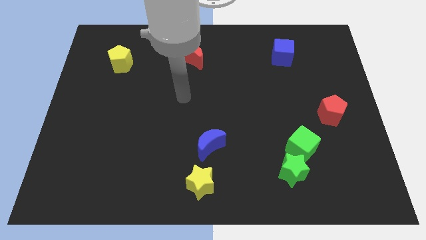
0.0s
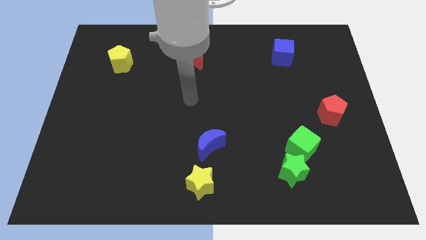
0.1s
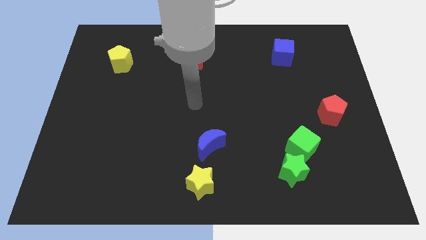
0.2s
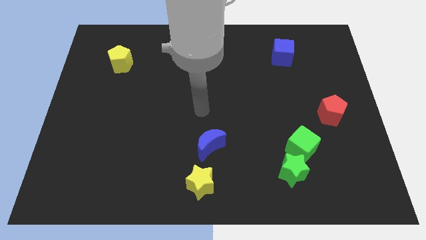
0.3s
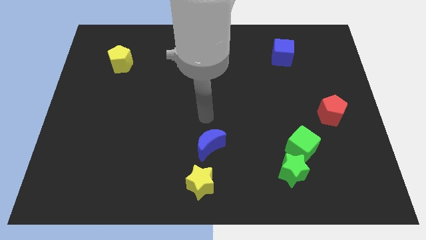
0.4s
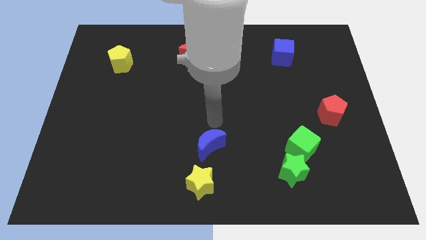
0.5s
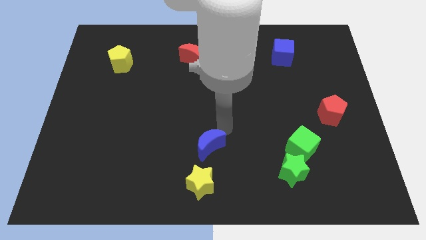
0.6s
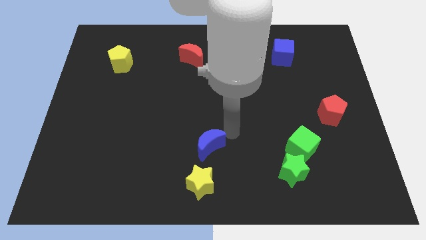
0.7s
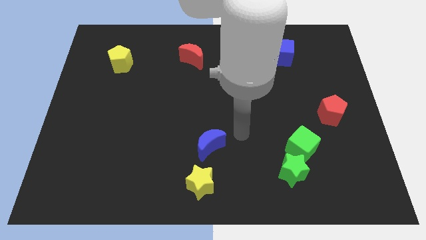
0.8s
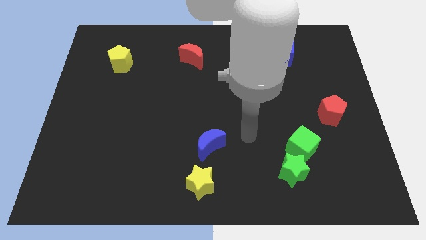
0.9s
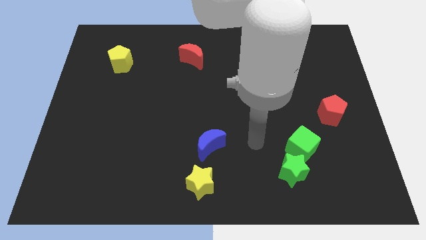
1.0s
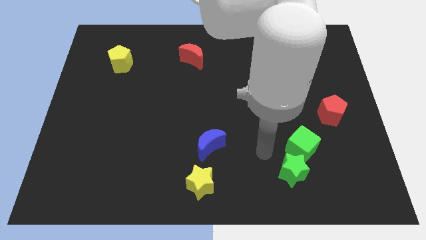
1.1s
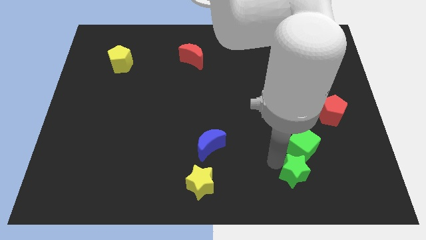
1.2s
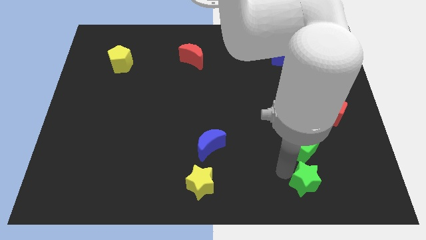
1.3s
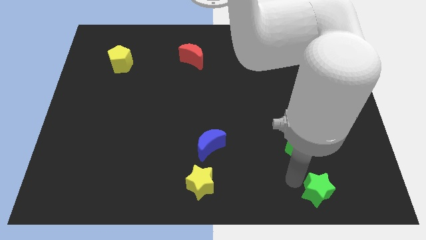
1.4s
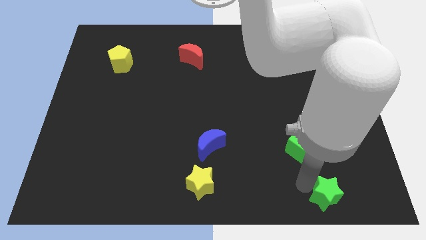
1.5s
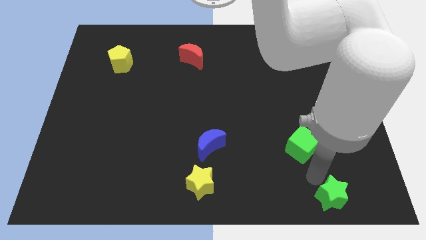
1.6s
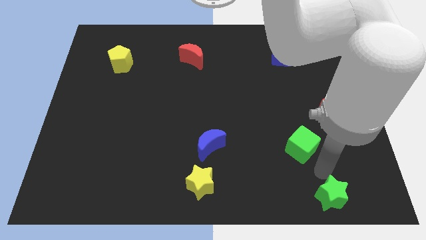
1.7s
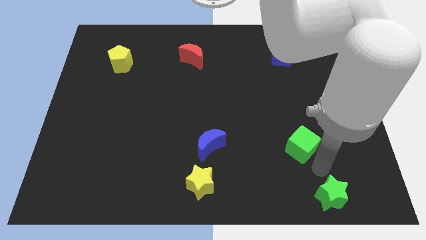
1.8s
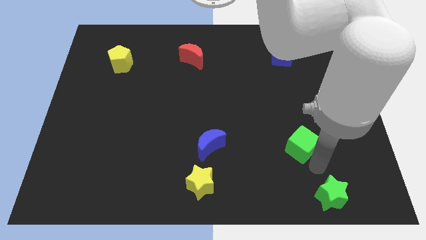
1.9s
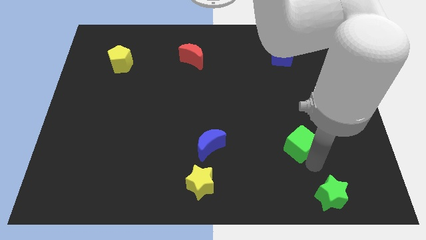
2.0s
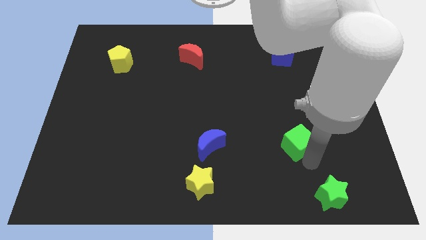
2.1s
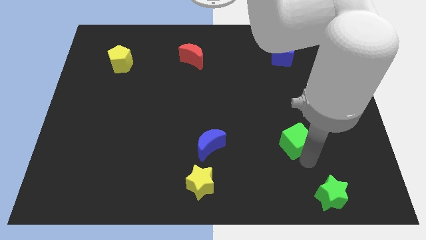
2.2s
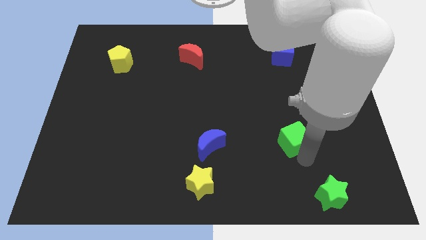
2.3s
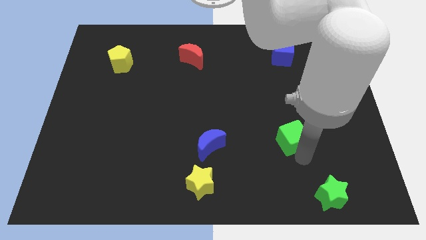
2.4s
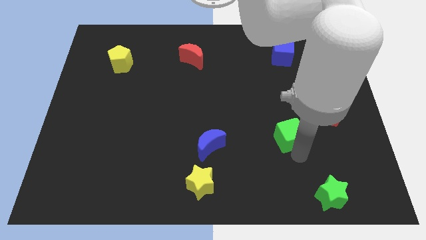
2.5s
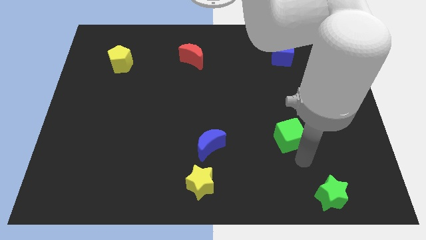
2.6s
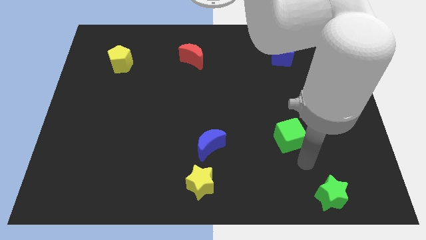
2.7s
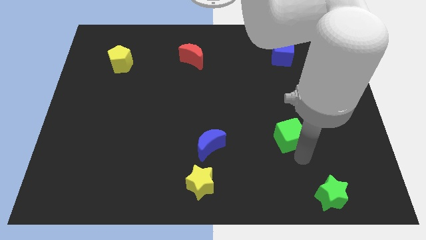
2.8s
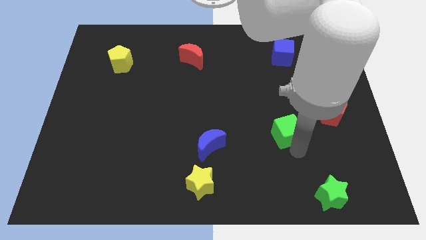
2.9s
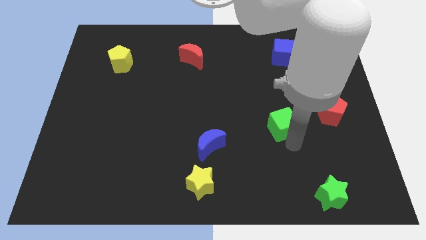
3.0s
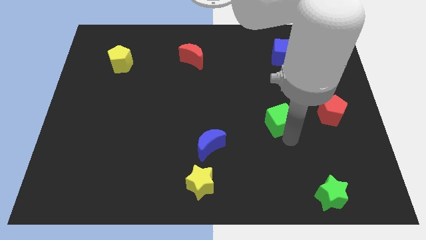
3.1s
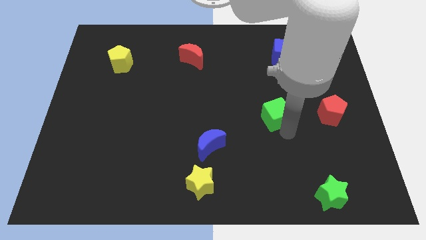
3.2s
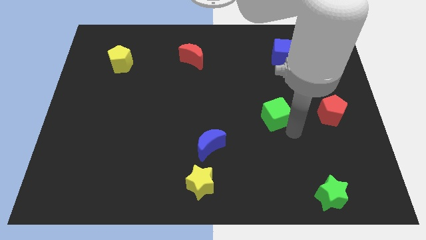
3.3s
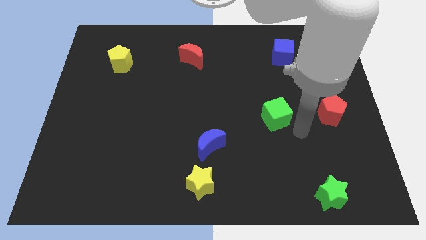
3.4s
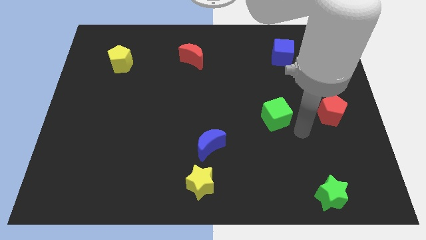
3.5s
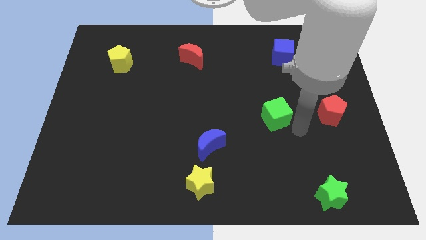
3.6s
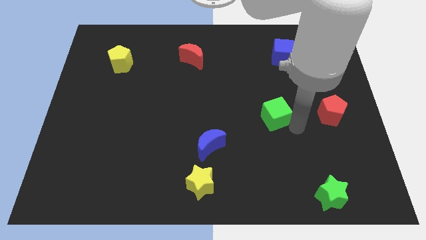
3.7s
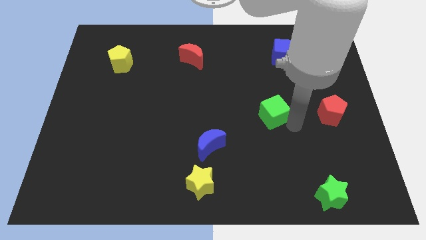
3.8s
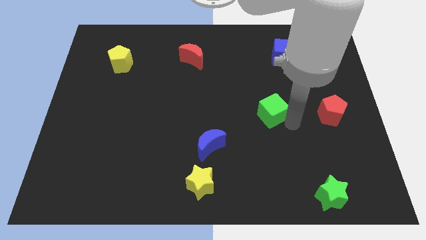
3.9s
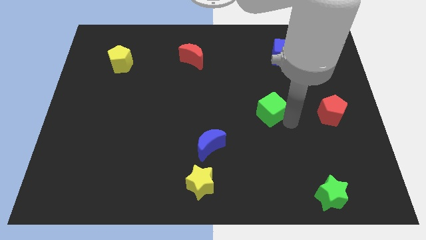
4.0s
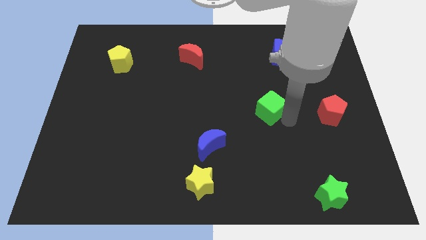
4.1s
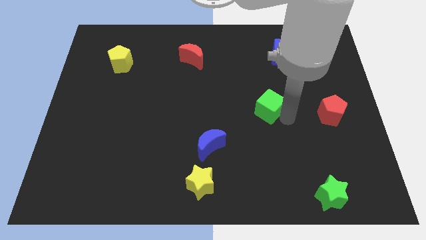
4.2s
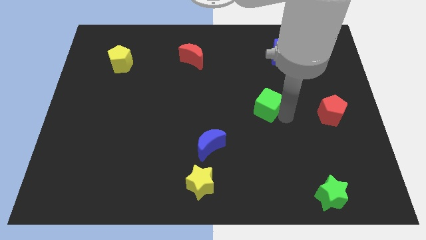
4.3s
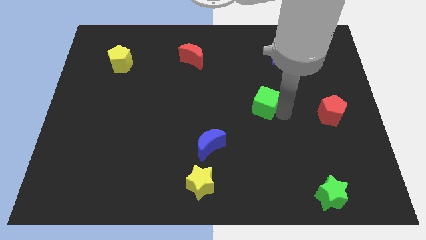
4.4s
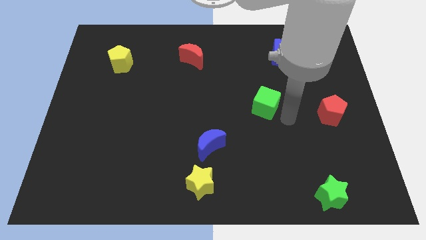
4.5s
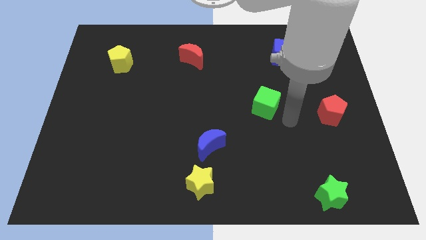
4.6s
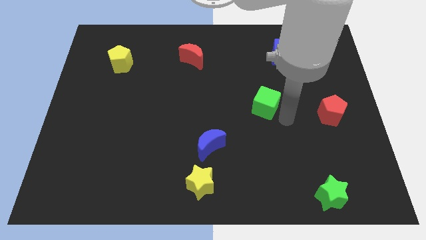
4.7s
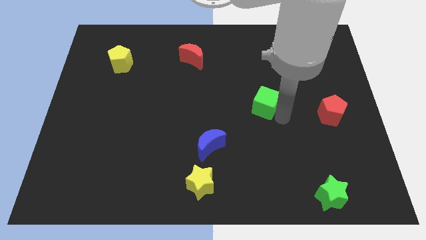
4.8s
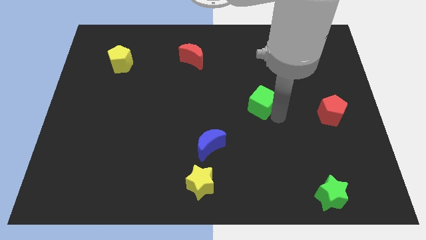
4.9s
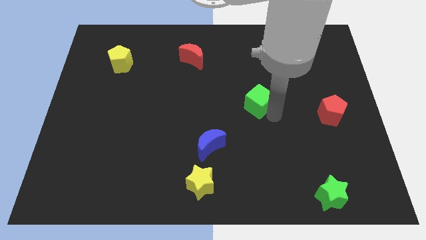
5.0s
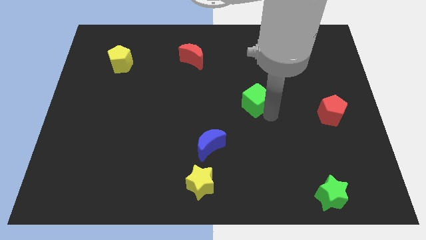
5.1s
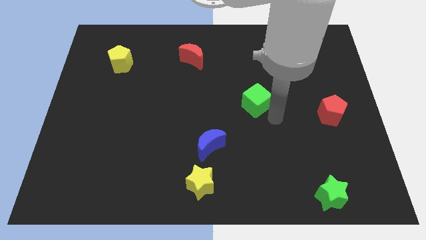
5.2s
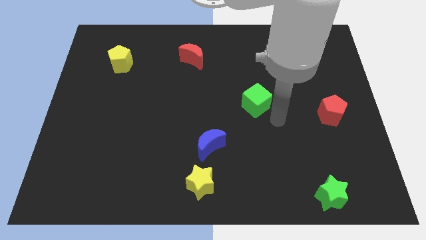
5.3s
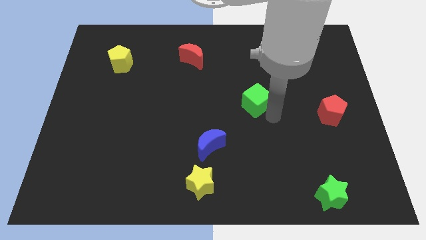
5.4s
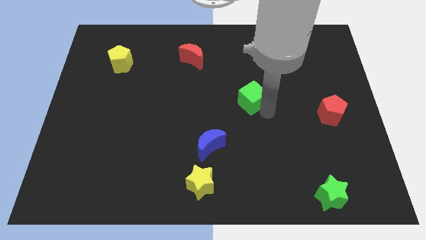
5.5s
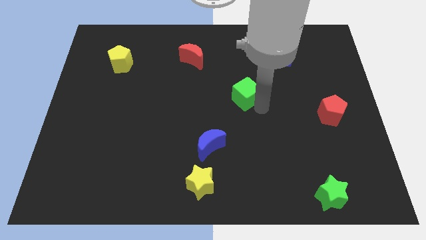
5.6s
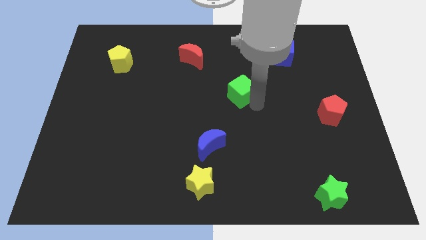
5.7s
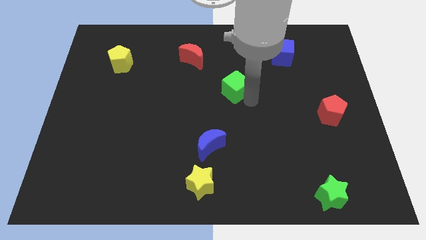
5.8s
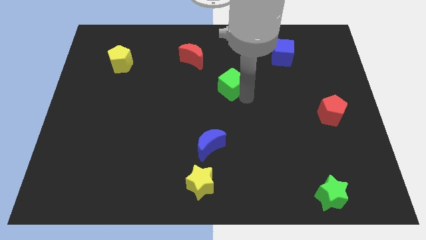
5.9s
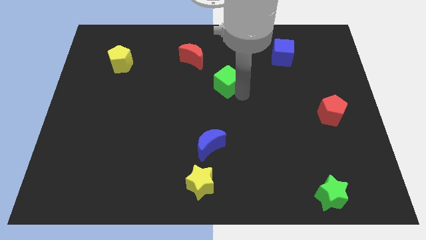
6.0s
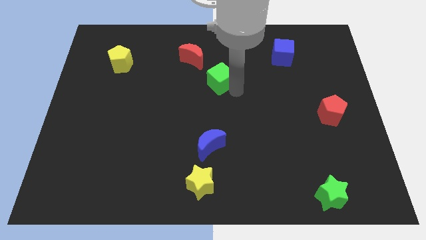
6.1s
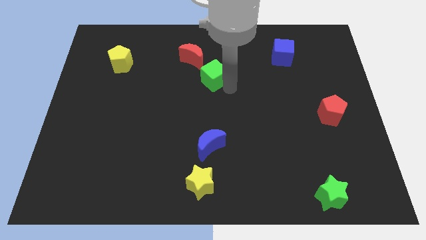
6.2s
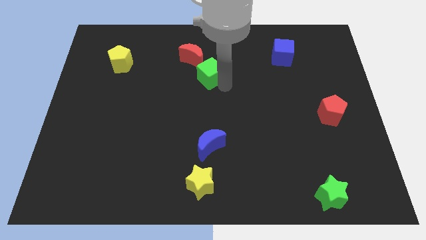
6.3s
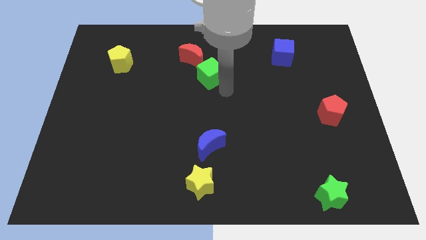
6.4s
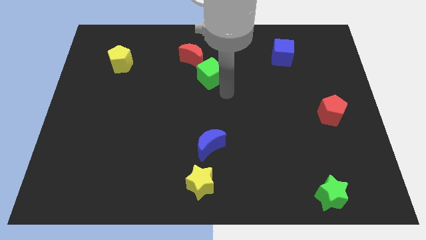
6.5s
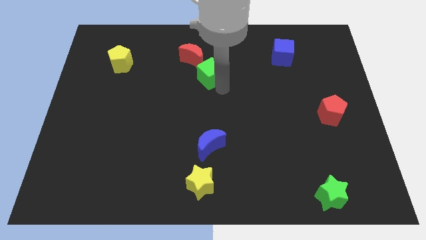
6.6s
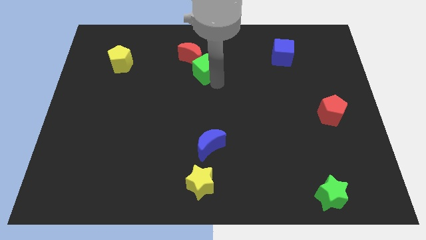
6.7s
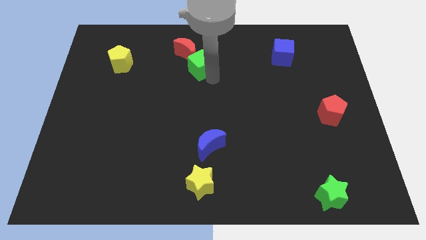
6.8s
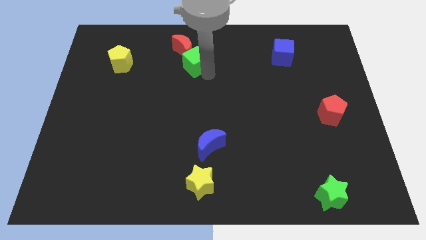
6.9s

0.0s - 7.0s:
push the green cube close to the red moon

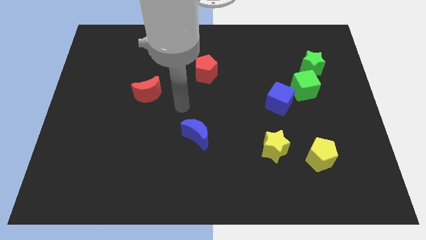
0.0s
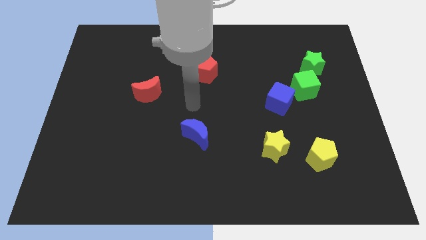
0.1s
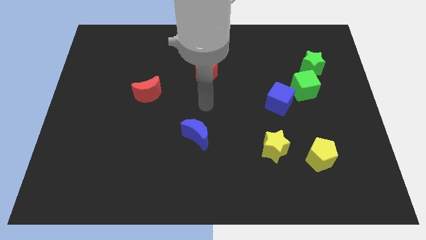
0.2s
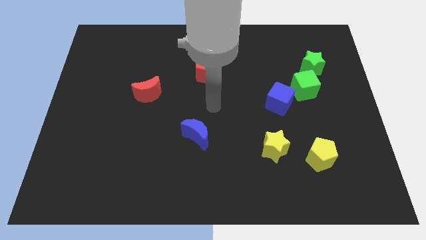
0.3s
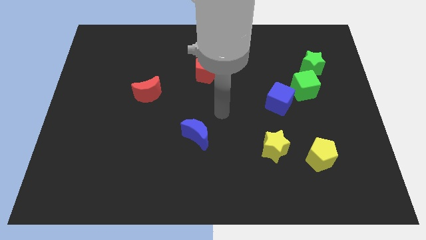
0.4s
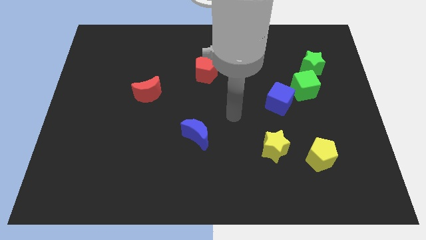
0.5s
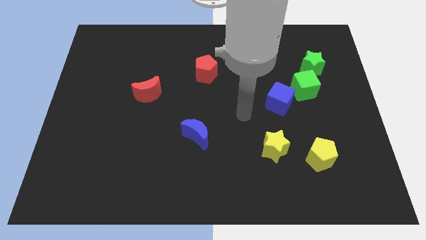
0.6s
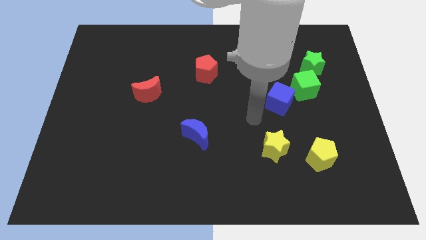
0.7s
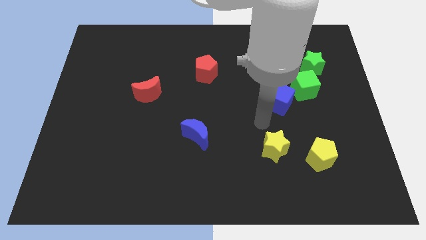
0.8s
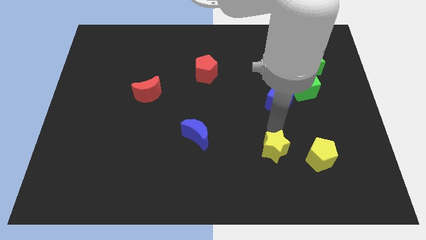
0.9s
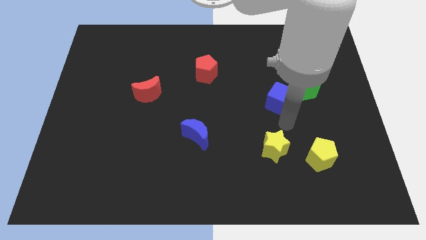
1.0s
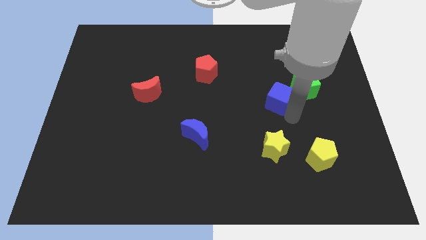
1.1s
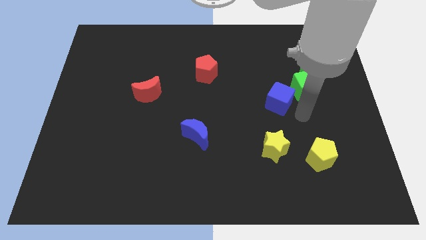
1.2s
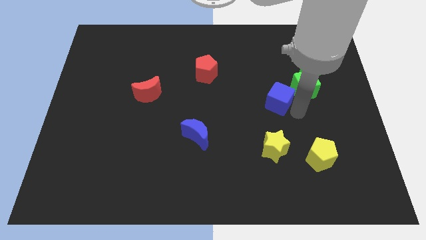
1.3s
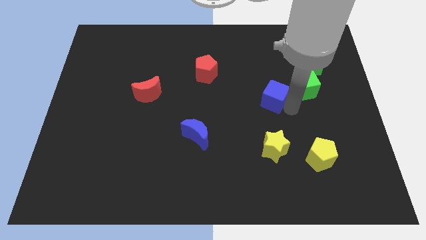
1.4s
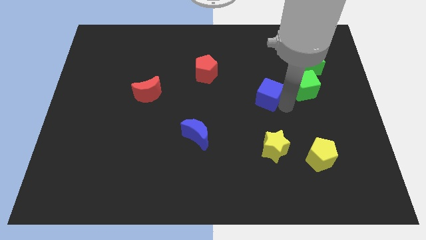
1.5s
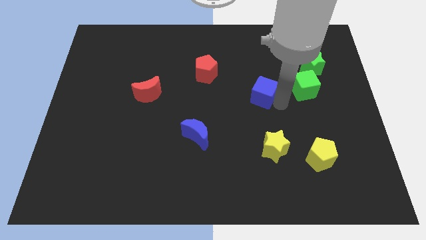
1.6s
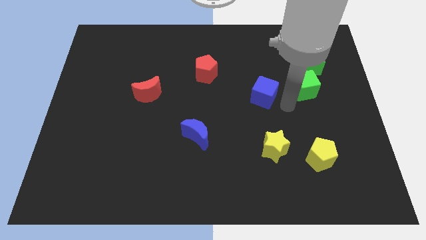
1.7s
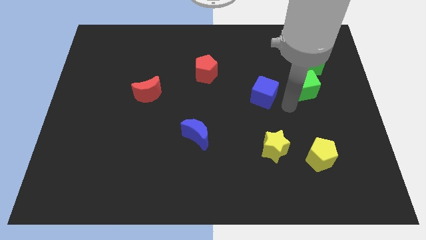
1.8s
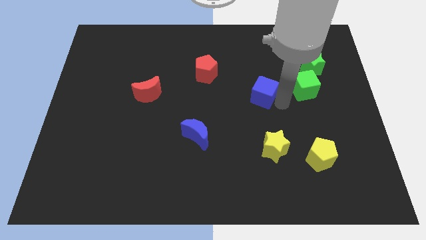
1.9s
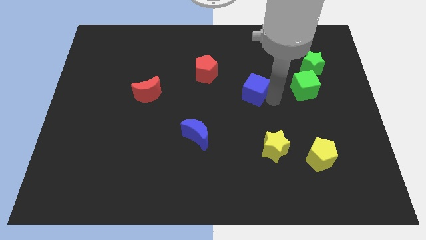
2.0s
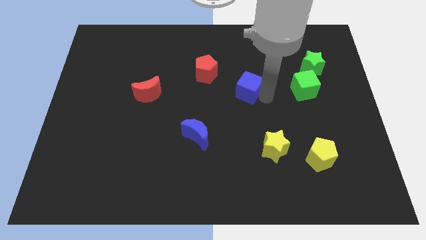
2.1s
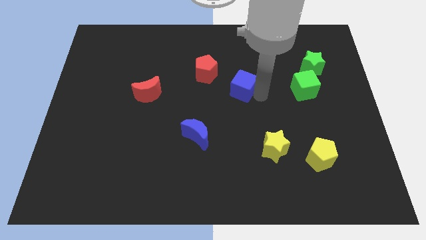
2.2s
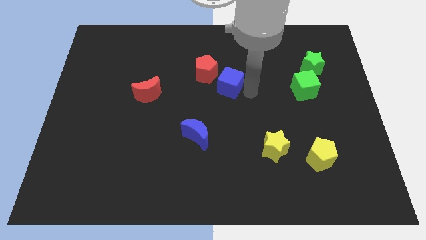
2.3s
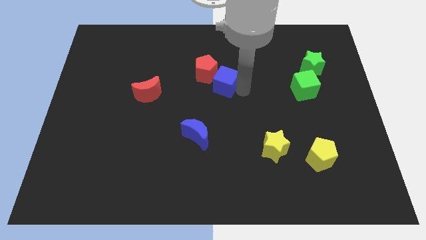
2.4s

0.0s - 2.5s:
slide the blue cube towards the red pentagon
